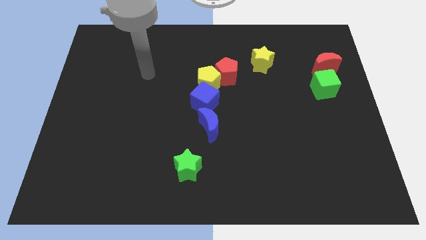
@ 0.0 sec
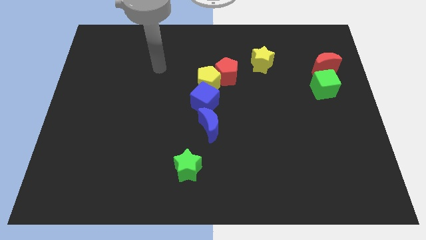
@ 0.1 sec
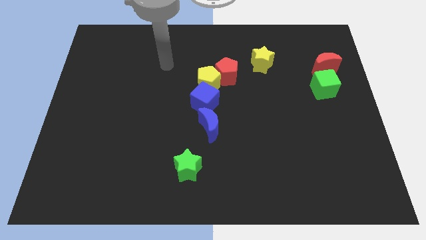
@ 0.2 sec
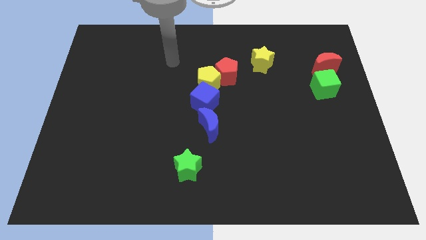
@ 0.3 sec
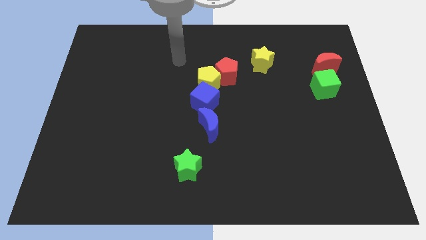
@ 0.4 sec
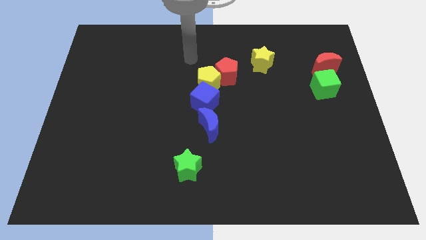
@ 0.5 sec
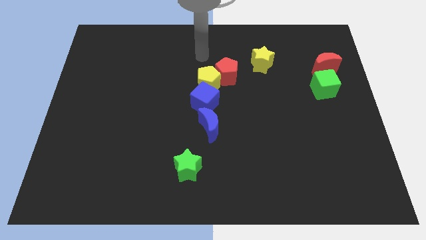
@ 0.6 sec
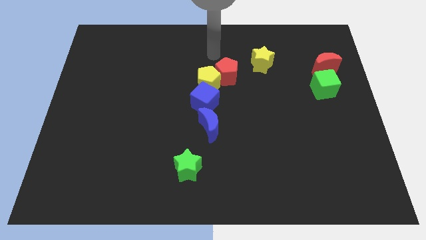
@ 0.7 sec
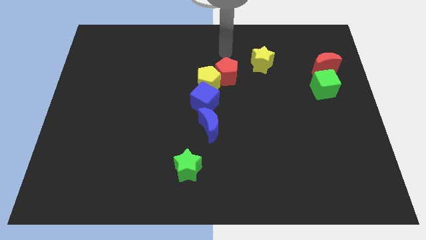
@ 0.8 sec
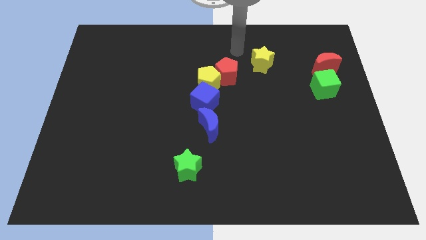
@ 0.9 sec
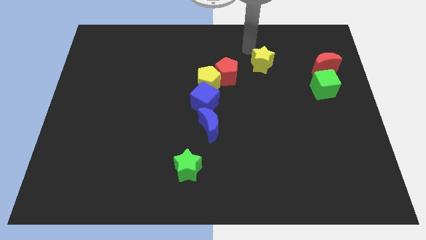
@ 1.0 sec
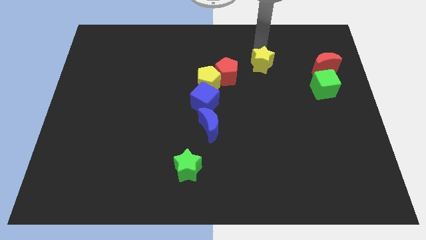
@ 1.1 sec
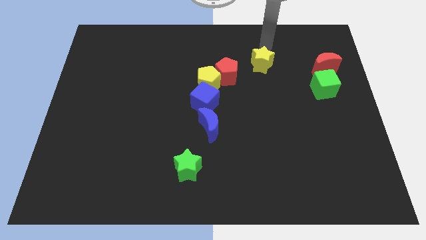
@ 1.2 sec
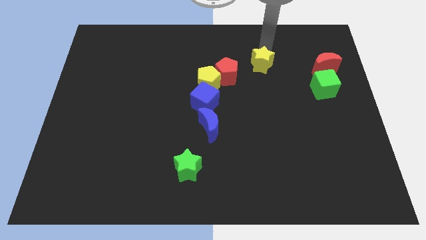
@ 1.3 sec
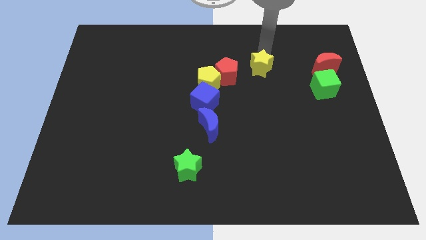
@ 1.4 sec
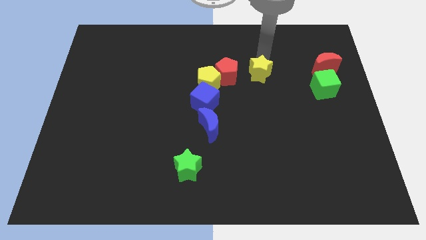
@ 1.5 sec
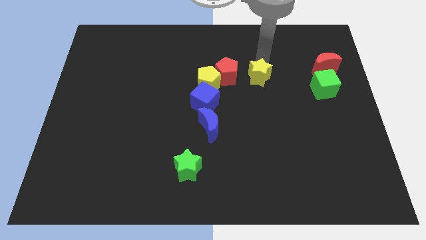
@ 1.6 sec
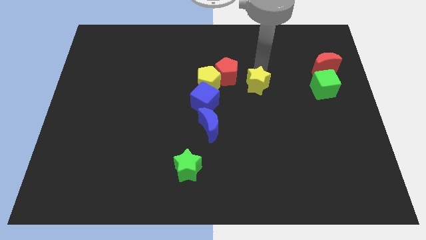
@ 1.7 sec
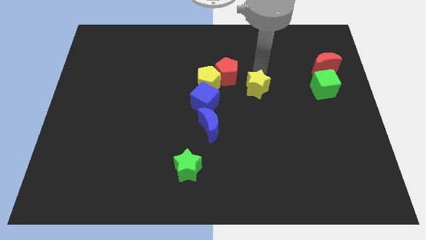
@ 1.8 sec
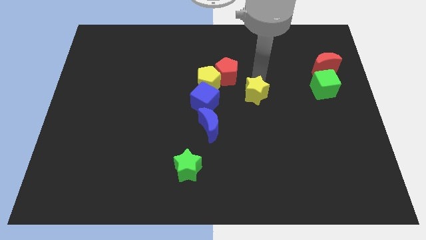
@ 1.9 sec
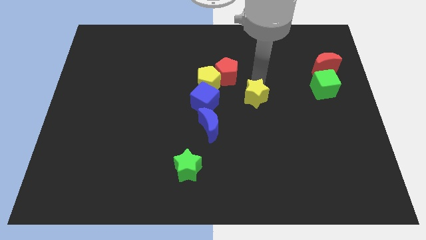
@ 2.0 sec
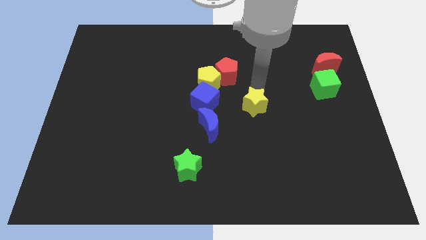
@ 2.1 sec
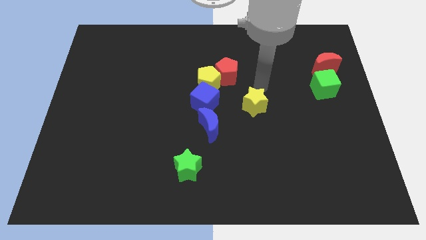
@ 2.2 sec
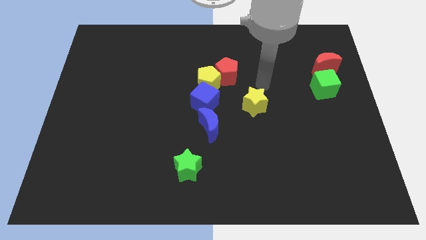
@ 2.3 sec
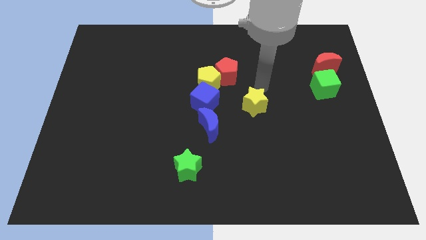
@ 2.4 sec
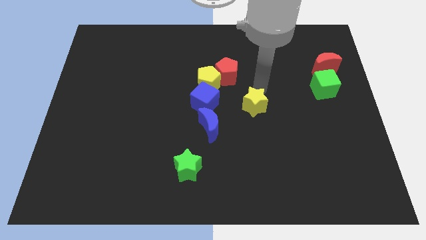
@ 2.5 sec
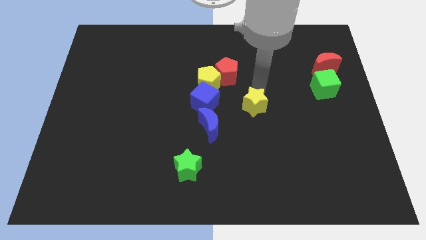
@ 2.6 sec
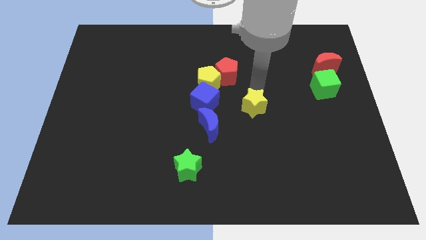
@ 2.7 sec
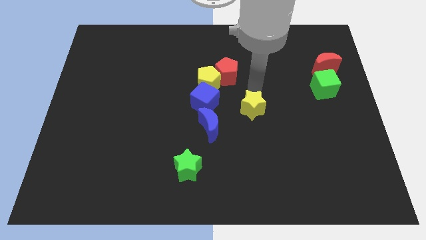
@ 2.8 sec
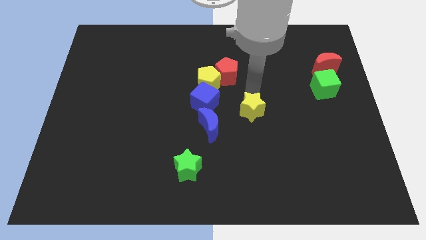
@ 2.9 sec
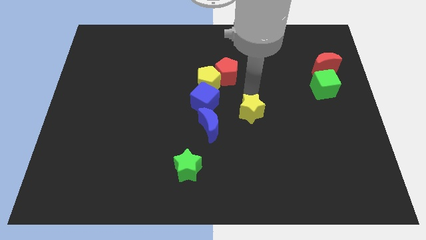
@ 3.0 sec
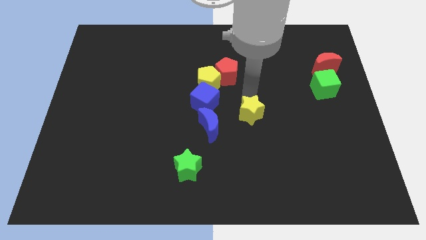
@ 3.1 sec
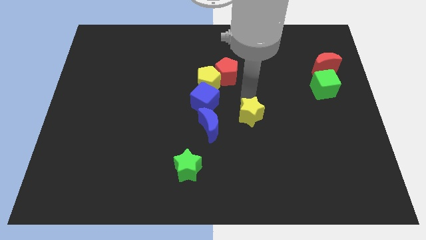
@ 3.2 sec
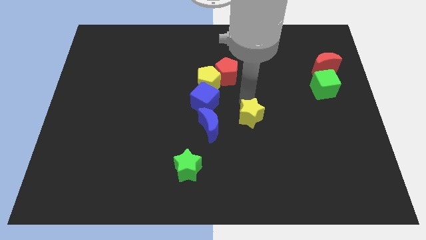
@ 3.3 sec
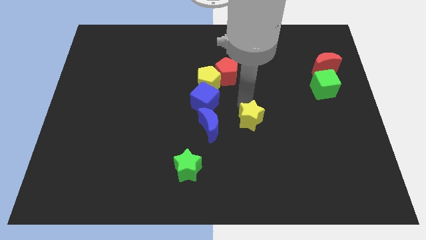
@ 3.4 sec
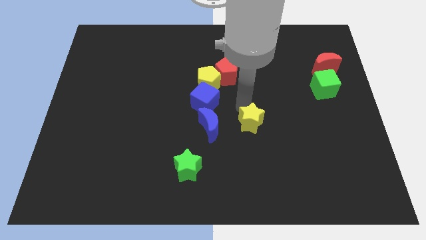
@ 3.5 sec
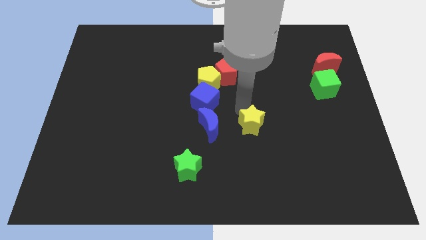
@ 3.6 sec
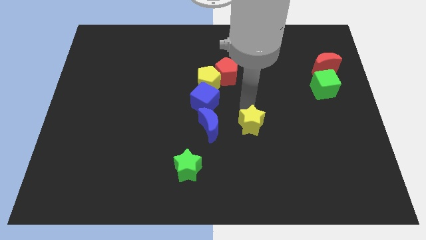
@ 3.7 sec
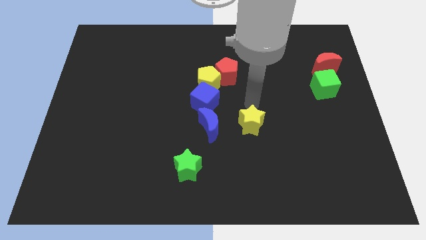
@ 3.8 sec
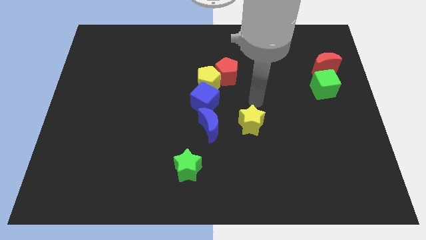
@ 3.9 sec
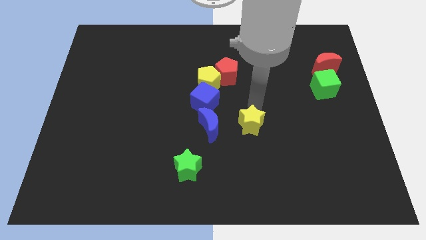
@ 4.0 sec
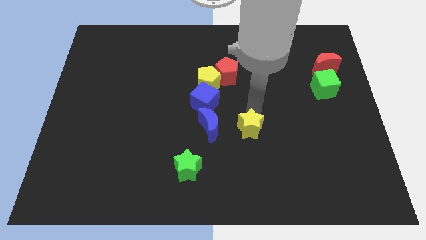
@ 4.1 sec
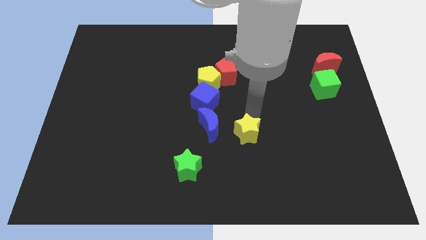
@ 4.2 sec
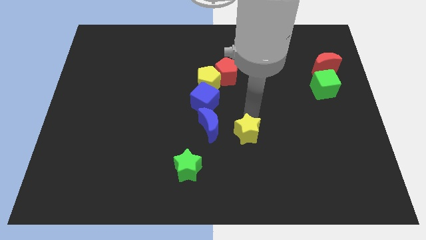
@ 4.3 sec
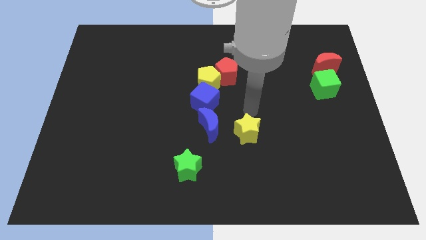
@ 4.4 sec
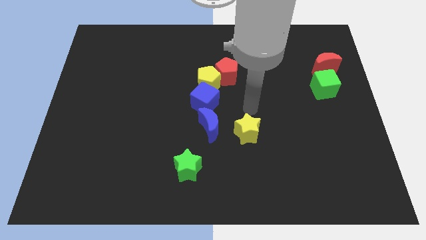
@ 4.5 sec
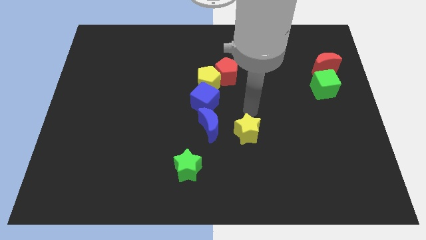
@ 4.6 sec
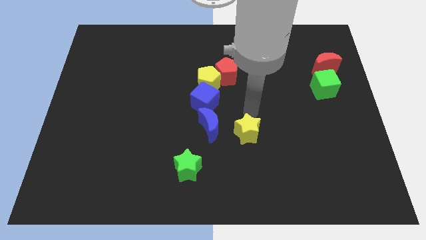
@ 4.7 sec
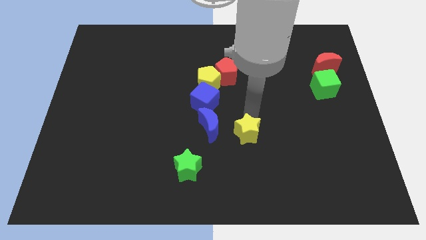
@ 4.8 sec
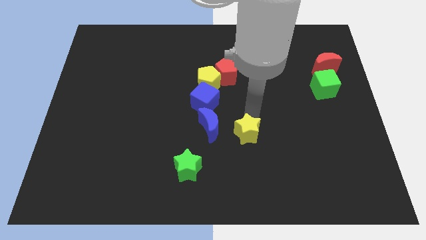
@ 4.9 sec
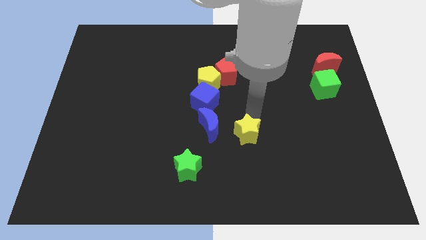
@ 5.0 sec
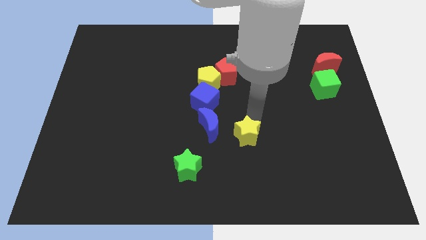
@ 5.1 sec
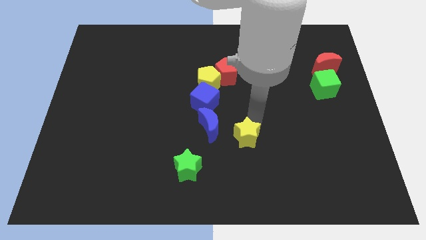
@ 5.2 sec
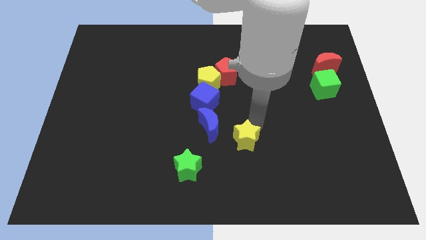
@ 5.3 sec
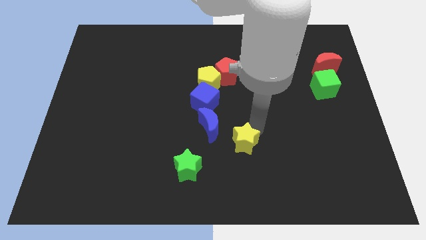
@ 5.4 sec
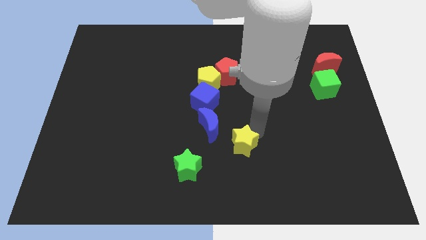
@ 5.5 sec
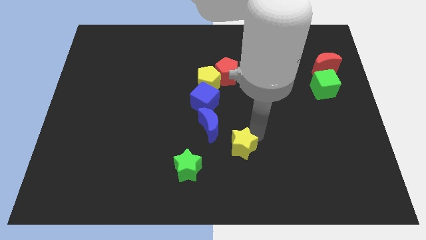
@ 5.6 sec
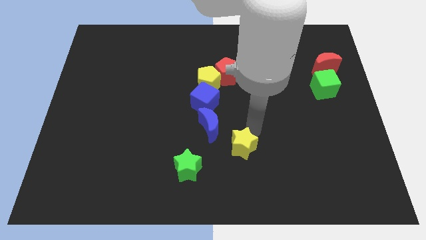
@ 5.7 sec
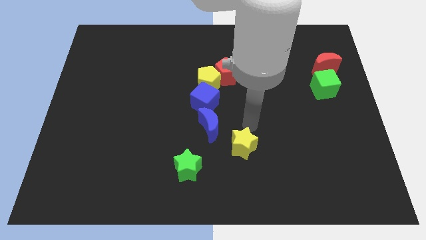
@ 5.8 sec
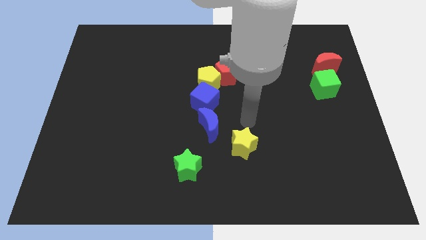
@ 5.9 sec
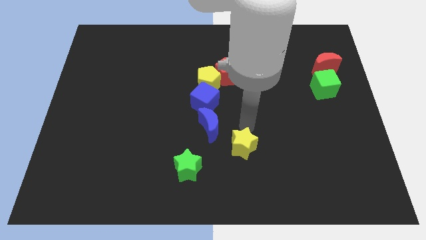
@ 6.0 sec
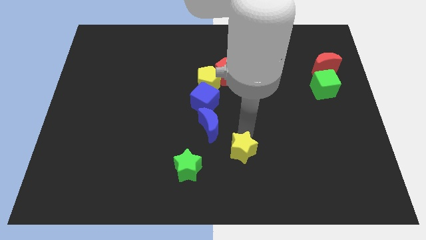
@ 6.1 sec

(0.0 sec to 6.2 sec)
move the yellow star right of the green star

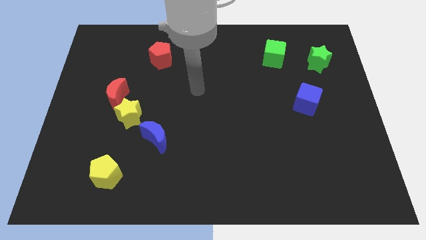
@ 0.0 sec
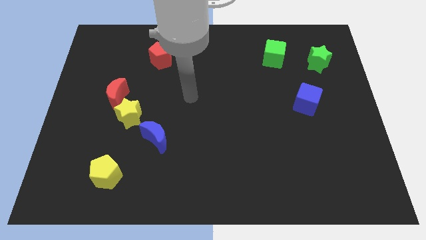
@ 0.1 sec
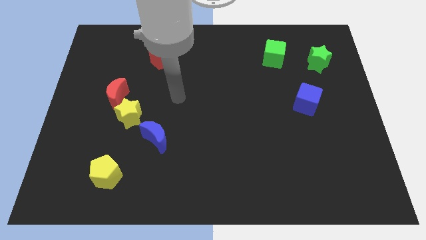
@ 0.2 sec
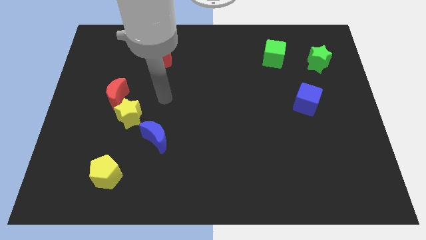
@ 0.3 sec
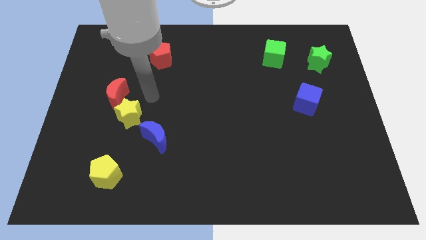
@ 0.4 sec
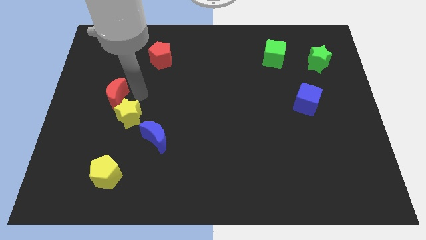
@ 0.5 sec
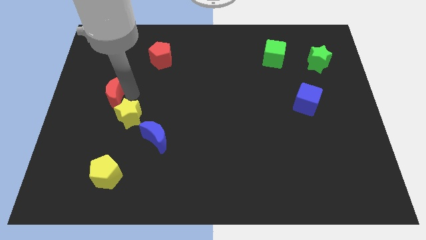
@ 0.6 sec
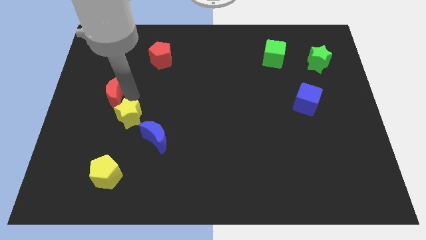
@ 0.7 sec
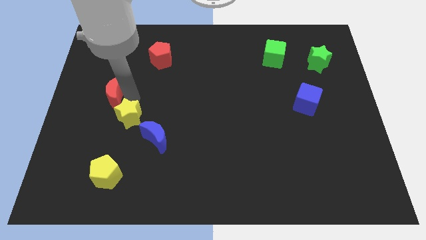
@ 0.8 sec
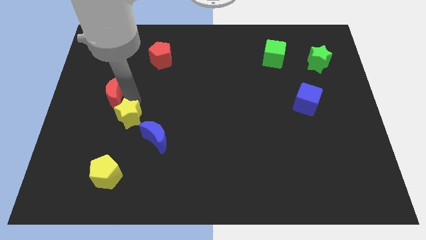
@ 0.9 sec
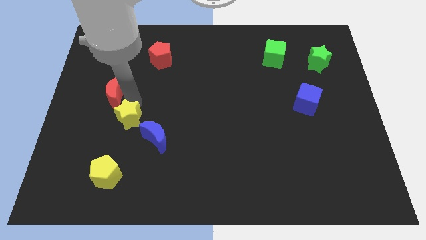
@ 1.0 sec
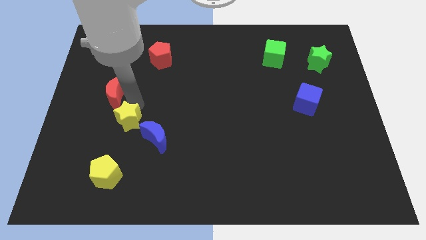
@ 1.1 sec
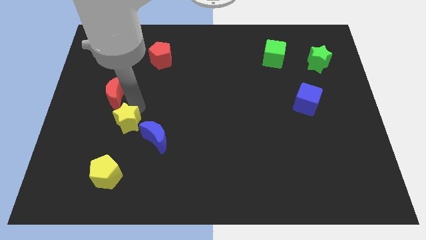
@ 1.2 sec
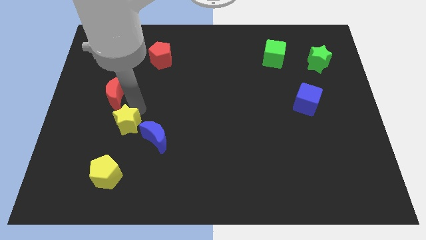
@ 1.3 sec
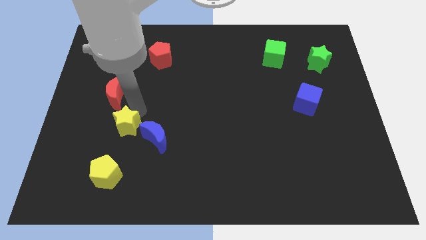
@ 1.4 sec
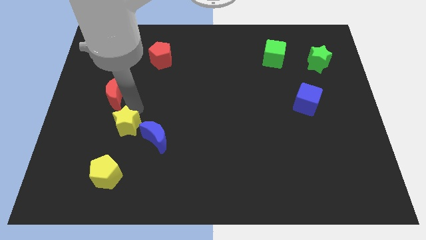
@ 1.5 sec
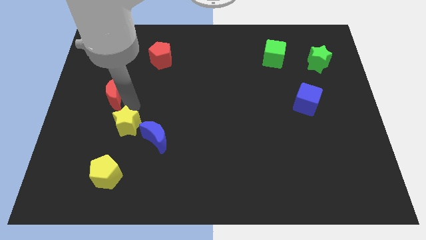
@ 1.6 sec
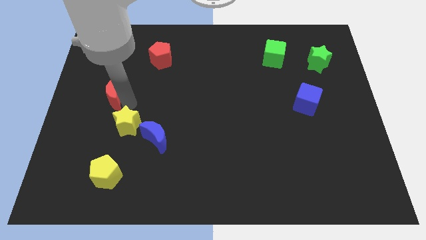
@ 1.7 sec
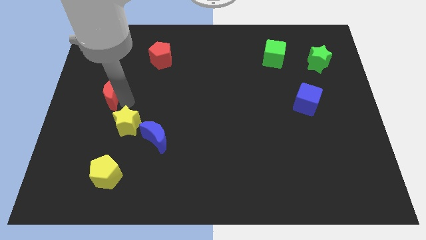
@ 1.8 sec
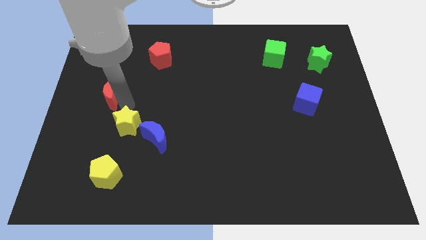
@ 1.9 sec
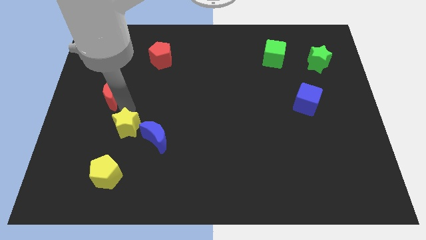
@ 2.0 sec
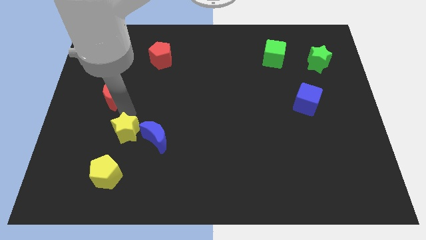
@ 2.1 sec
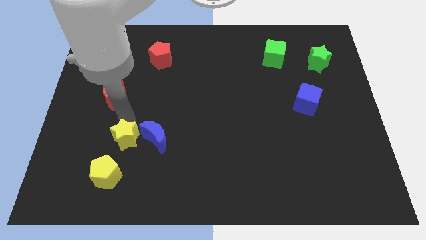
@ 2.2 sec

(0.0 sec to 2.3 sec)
slide the yellow star diagonally down and to the left of the blue moon
